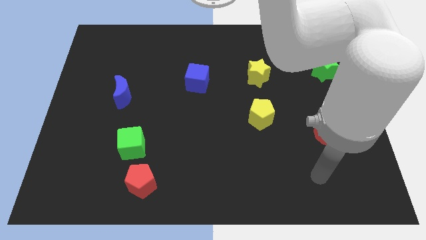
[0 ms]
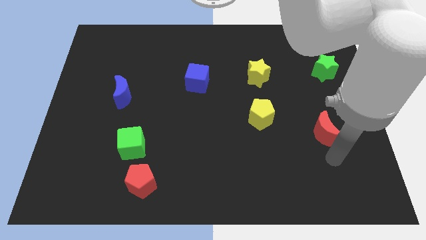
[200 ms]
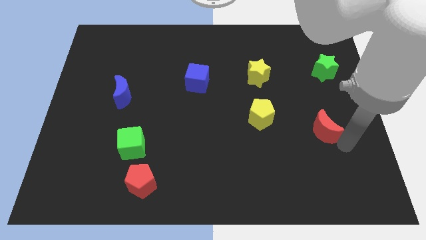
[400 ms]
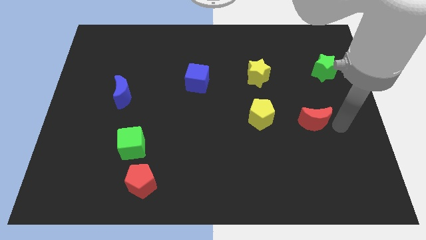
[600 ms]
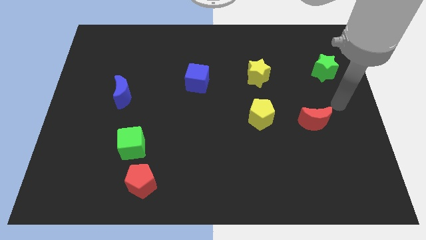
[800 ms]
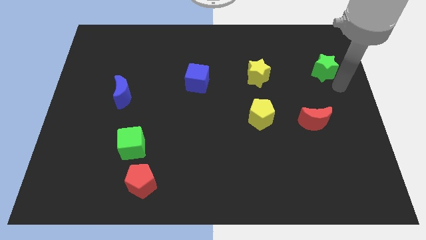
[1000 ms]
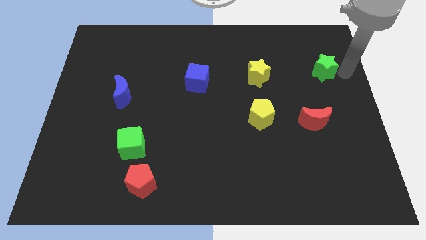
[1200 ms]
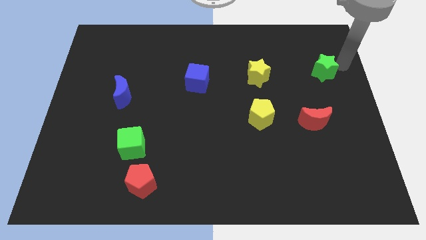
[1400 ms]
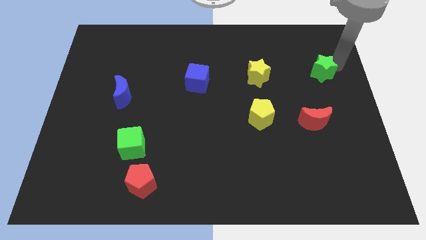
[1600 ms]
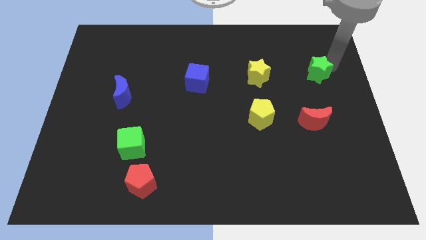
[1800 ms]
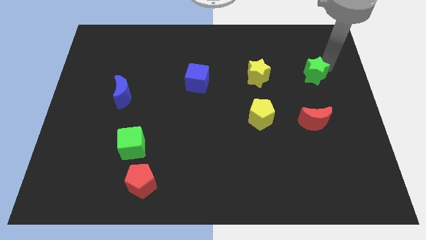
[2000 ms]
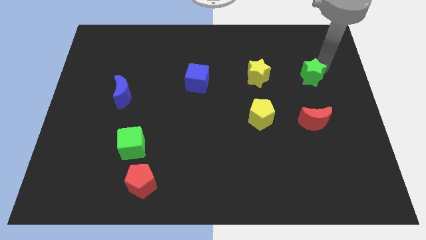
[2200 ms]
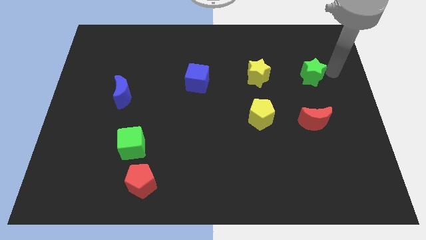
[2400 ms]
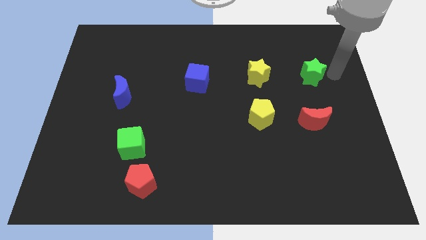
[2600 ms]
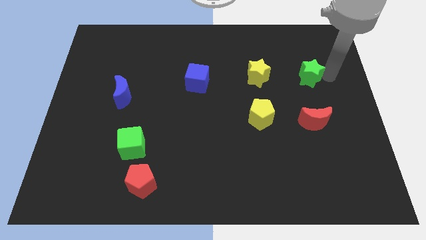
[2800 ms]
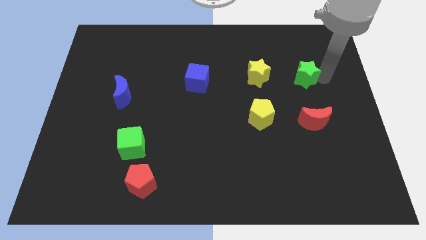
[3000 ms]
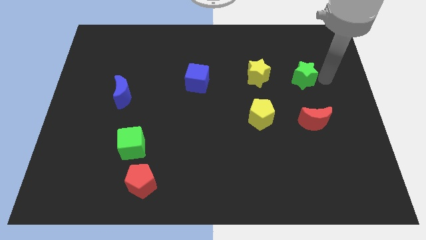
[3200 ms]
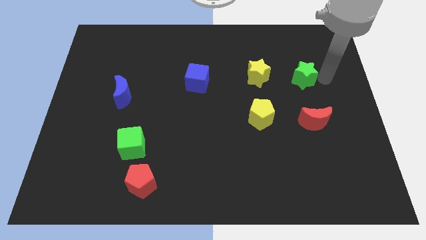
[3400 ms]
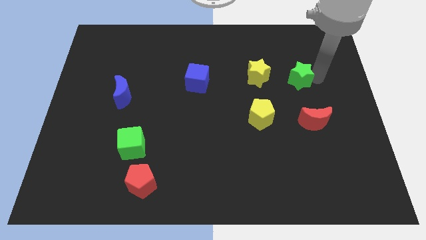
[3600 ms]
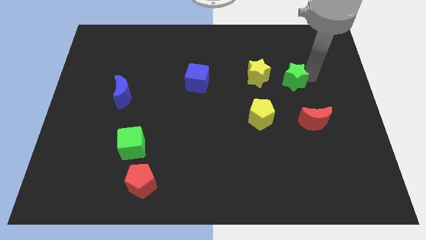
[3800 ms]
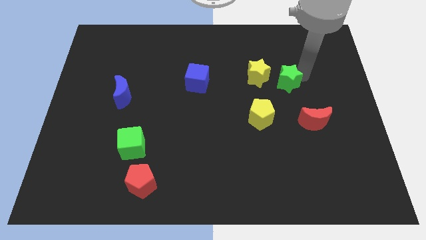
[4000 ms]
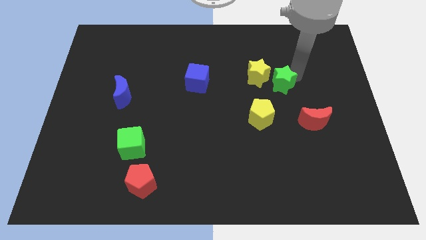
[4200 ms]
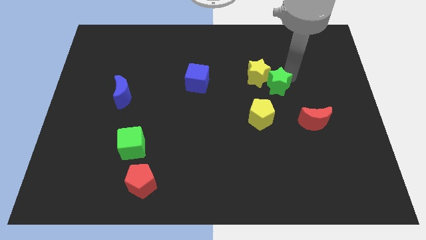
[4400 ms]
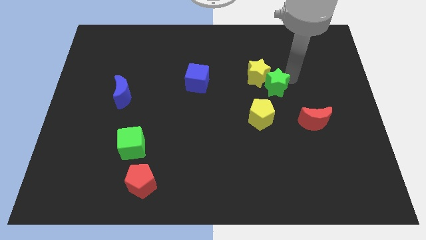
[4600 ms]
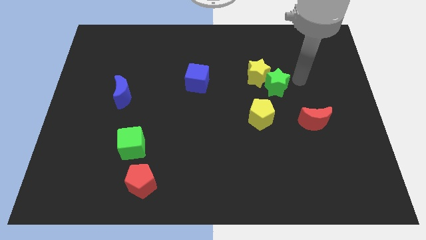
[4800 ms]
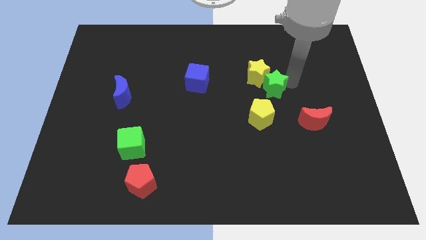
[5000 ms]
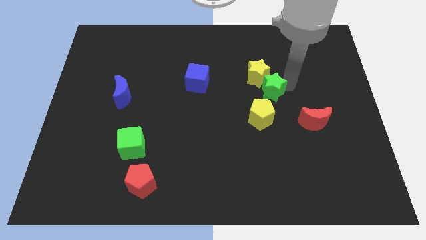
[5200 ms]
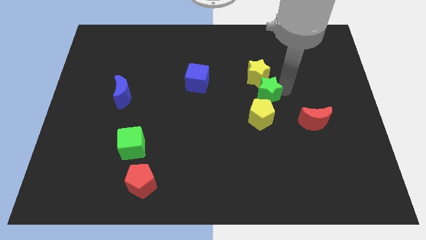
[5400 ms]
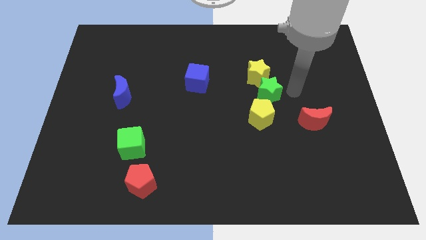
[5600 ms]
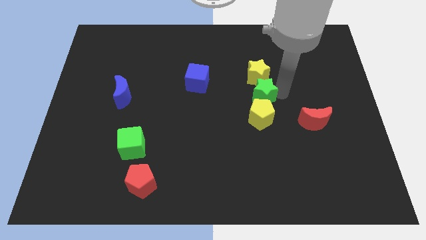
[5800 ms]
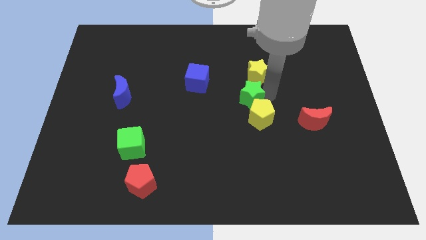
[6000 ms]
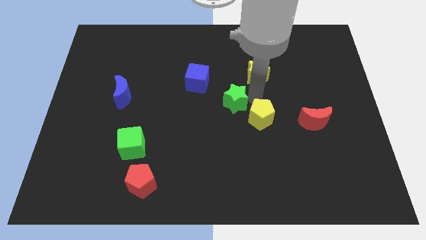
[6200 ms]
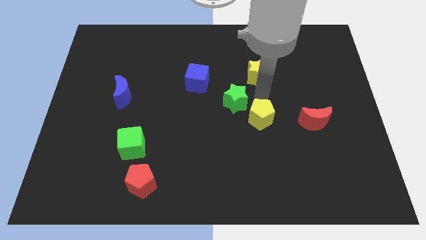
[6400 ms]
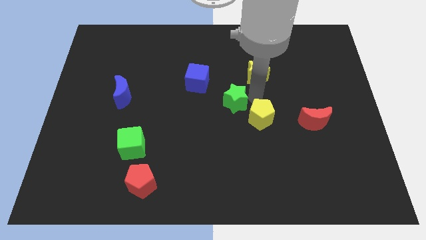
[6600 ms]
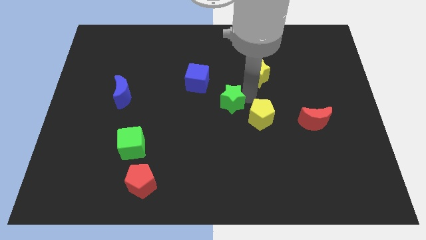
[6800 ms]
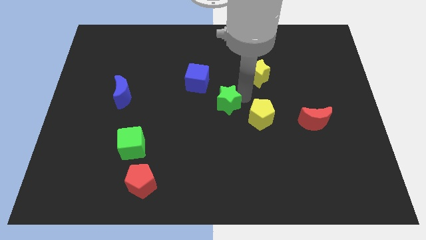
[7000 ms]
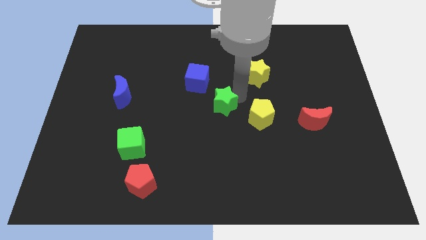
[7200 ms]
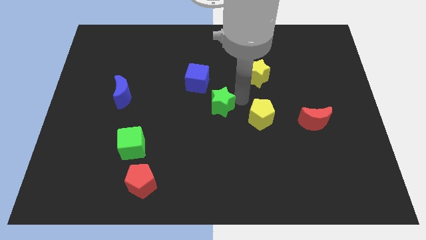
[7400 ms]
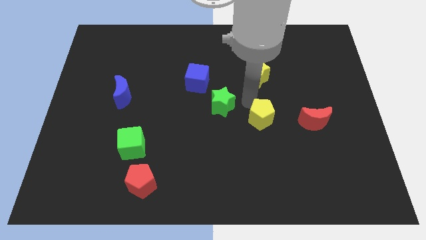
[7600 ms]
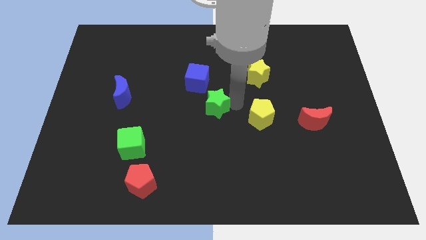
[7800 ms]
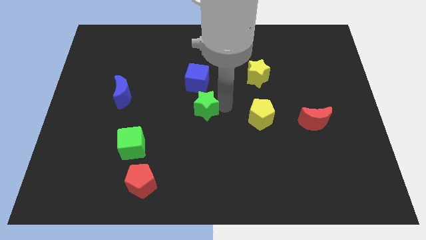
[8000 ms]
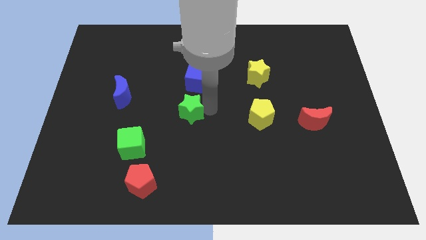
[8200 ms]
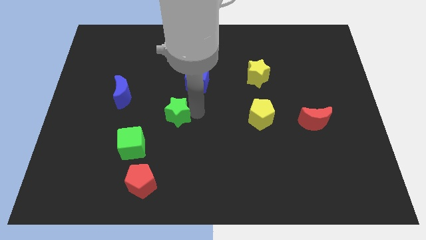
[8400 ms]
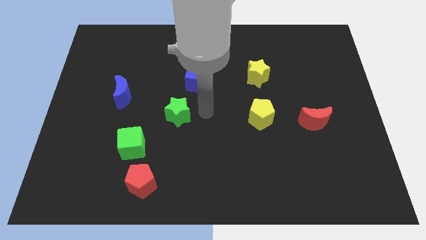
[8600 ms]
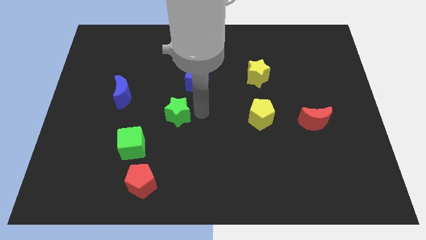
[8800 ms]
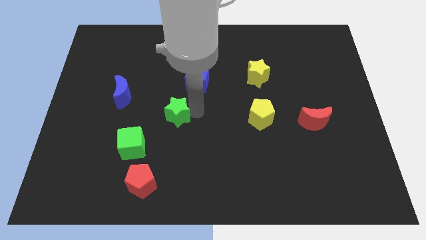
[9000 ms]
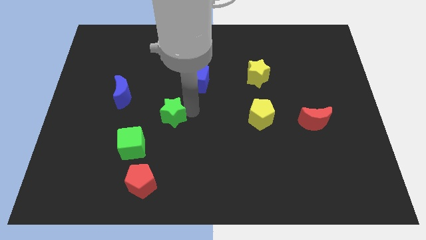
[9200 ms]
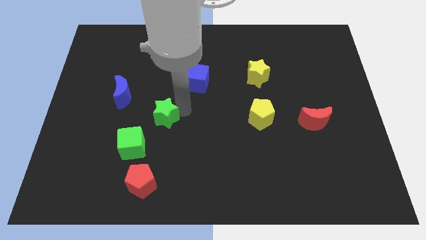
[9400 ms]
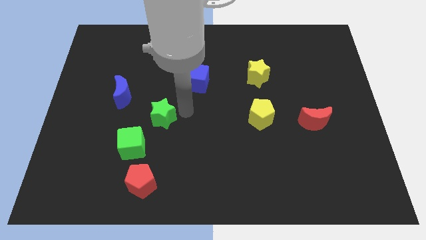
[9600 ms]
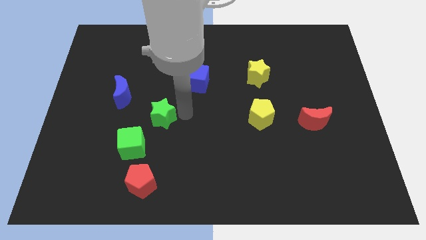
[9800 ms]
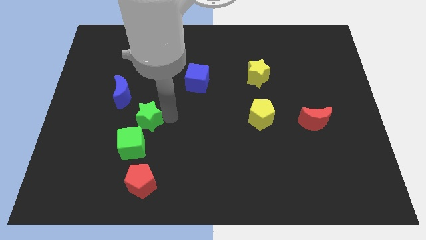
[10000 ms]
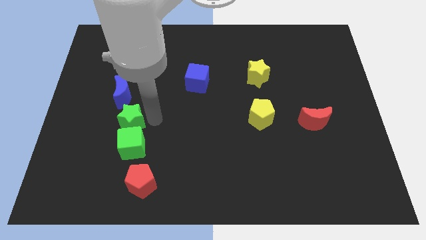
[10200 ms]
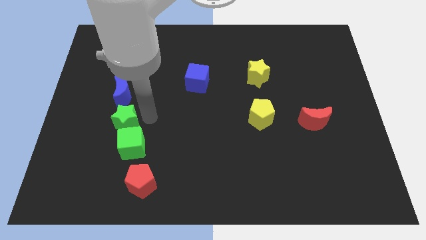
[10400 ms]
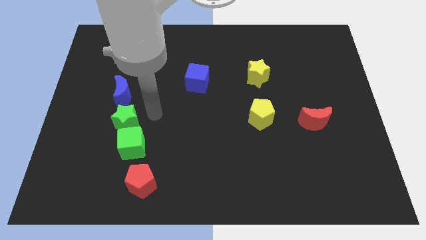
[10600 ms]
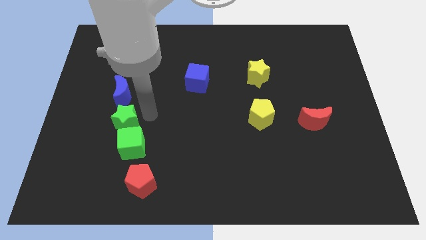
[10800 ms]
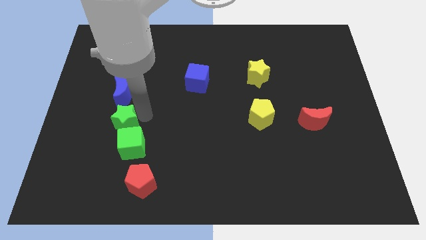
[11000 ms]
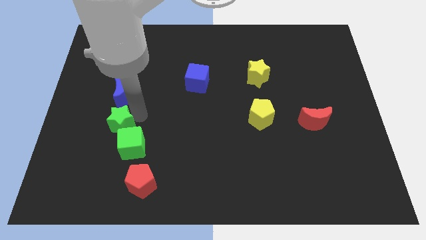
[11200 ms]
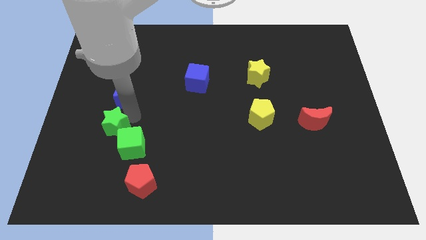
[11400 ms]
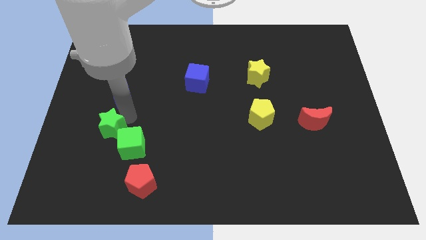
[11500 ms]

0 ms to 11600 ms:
push the green star left of the green cube

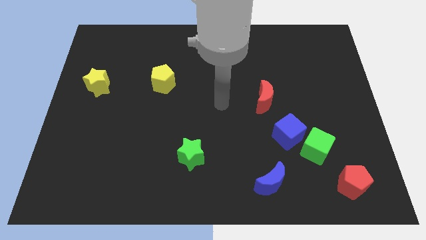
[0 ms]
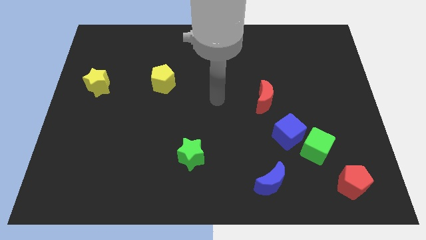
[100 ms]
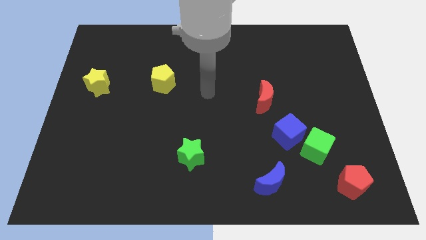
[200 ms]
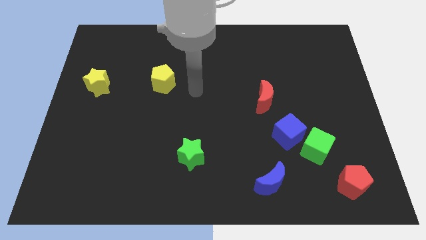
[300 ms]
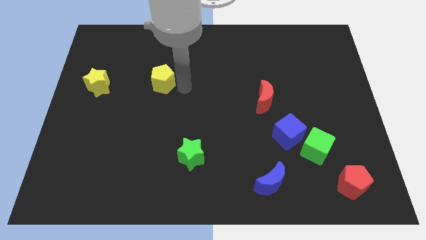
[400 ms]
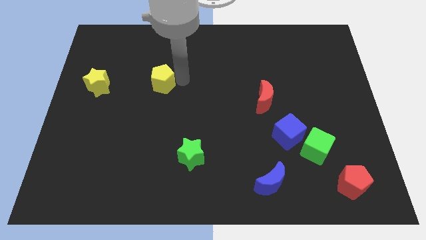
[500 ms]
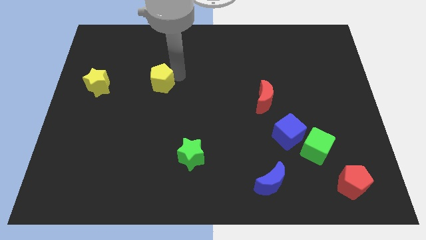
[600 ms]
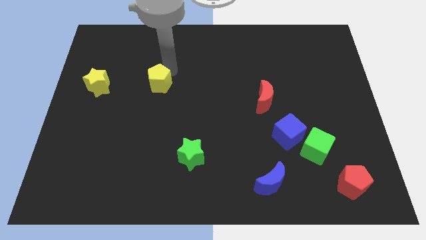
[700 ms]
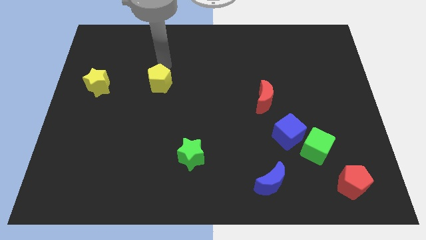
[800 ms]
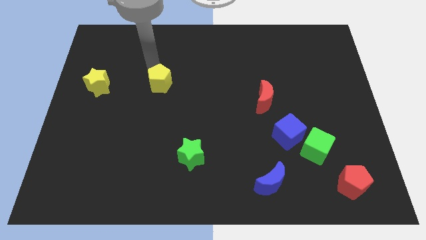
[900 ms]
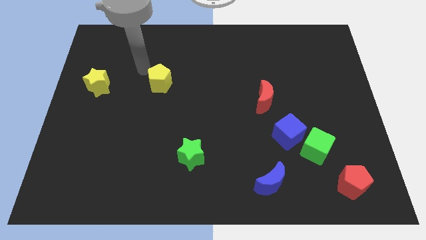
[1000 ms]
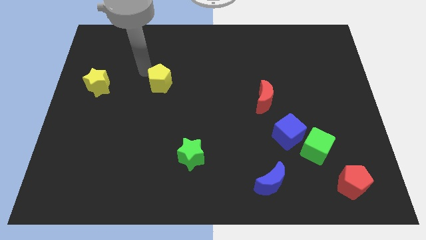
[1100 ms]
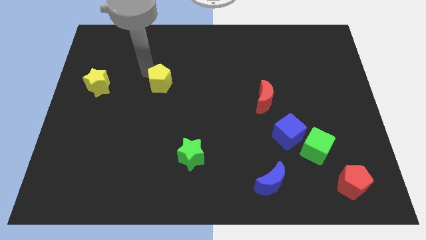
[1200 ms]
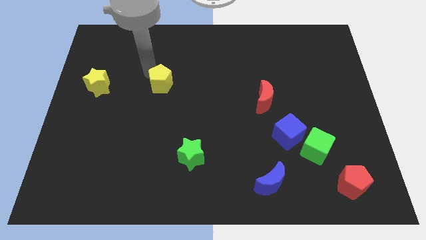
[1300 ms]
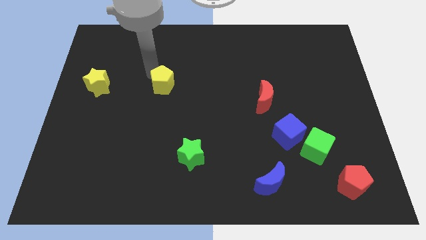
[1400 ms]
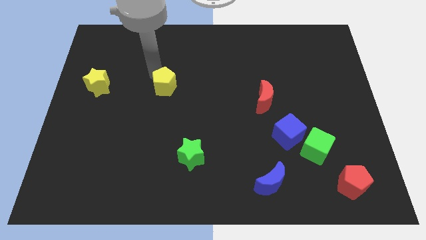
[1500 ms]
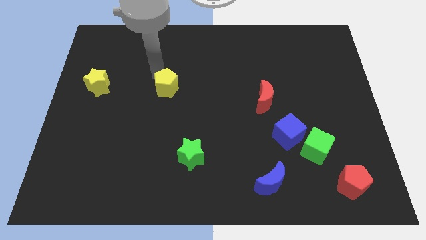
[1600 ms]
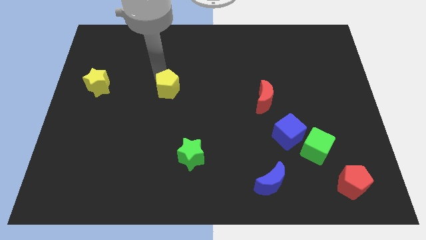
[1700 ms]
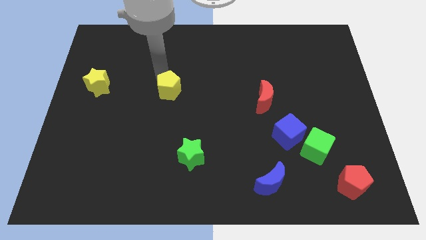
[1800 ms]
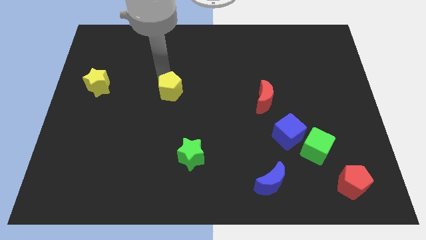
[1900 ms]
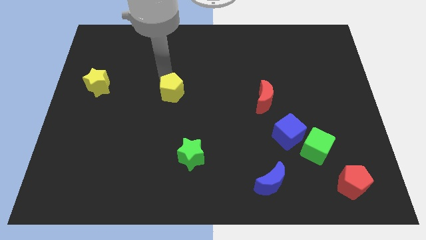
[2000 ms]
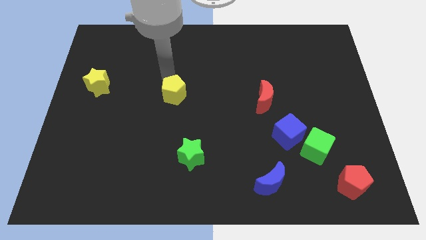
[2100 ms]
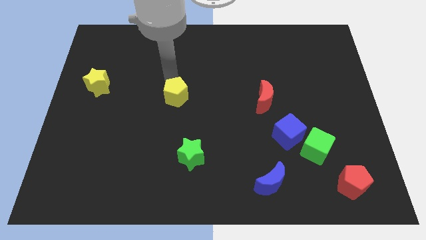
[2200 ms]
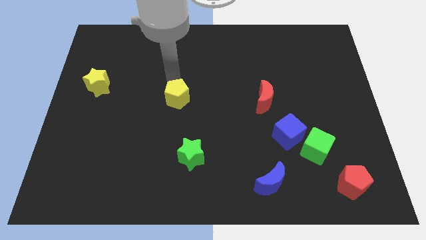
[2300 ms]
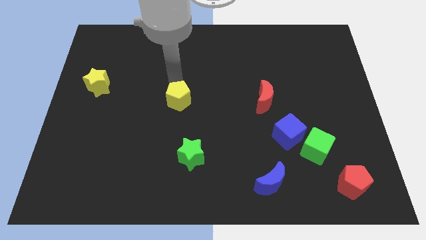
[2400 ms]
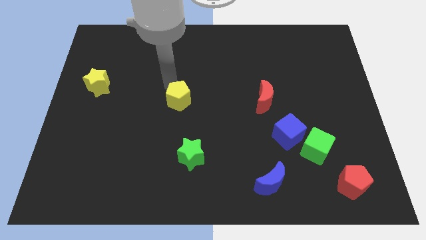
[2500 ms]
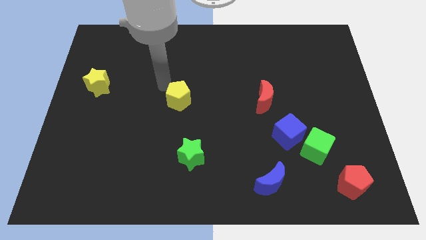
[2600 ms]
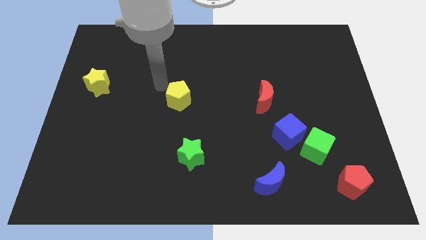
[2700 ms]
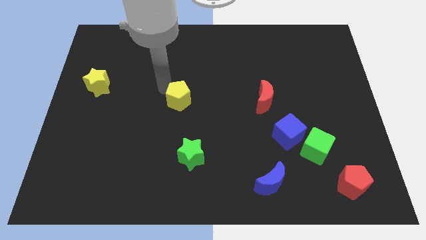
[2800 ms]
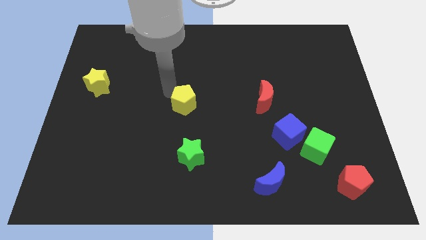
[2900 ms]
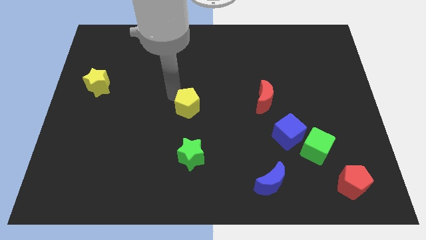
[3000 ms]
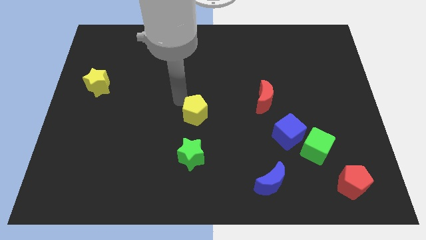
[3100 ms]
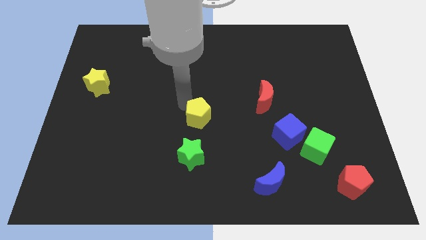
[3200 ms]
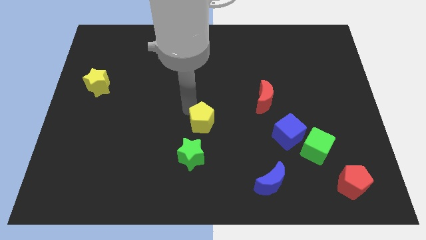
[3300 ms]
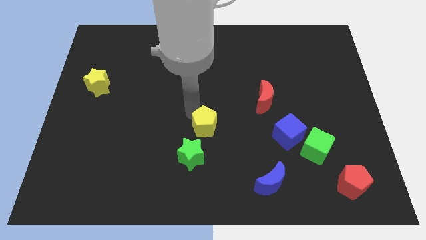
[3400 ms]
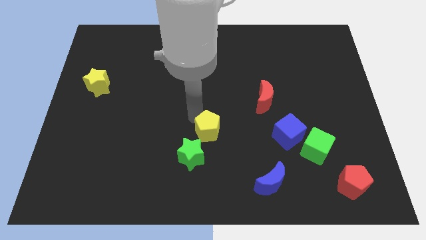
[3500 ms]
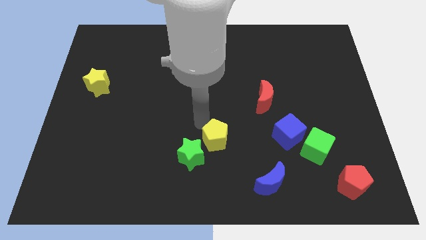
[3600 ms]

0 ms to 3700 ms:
put the yellow pentagon to the right side of the green star
